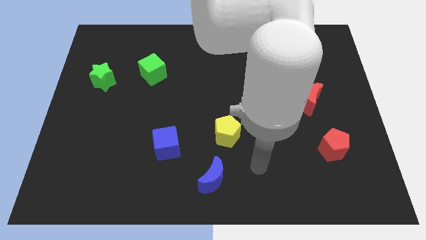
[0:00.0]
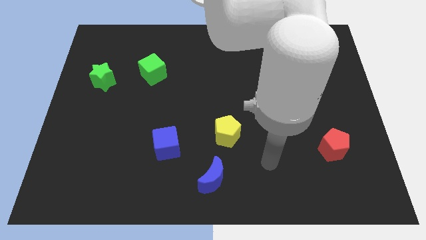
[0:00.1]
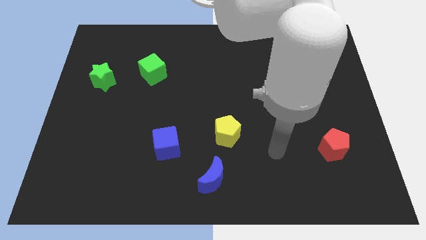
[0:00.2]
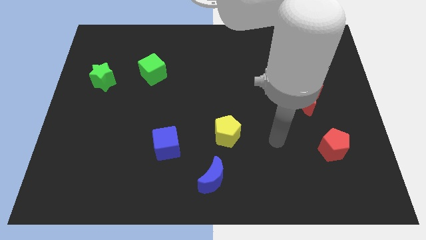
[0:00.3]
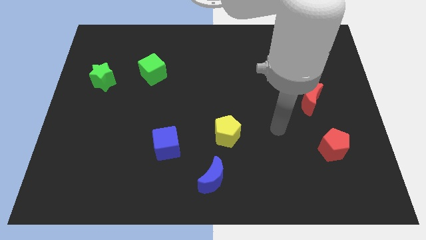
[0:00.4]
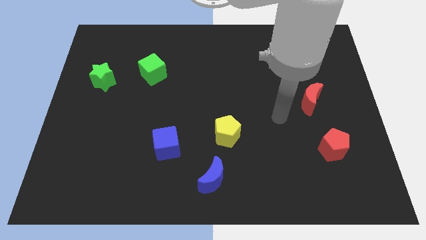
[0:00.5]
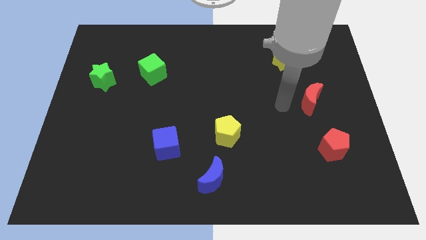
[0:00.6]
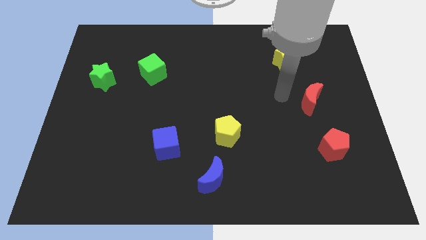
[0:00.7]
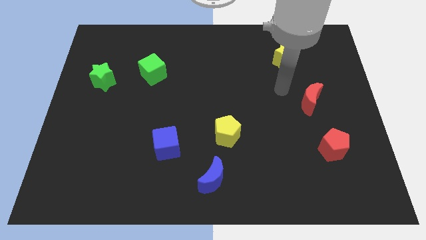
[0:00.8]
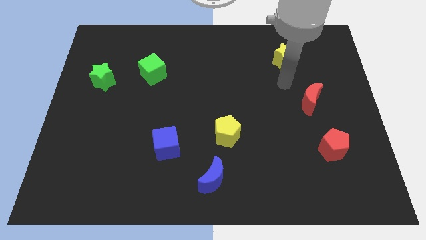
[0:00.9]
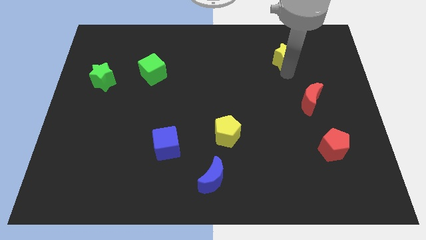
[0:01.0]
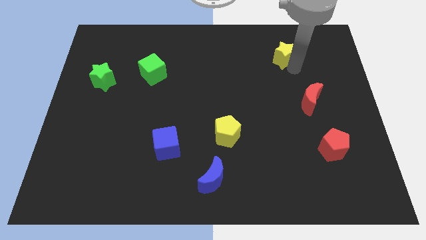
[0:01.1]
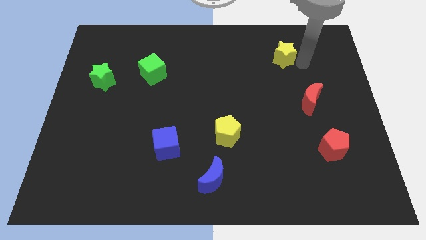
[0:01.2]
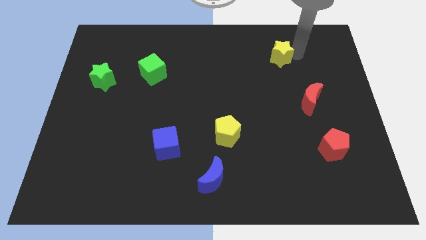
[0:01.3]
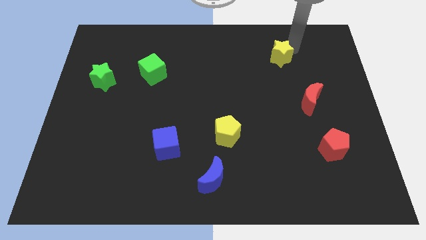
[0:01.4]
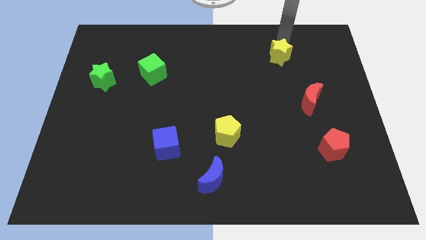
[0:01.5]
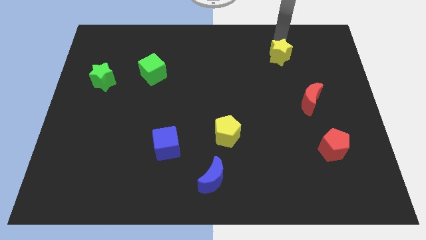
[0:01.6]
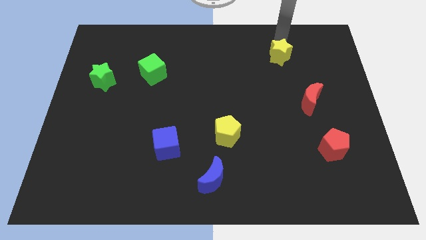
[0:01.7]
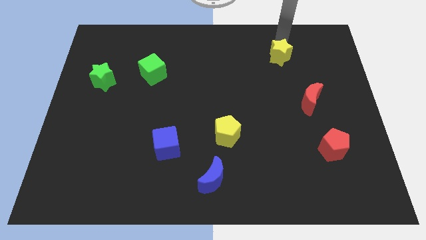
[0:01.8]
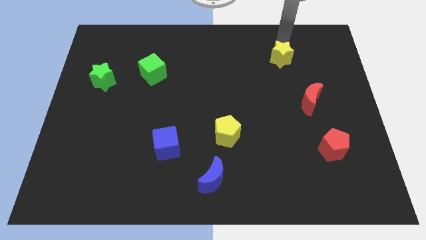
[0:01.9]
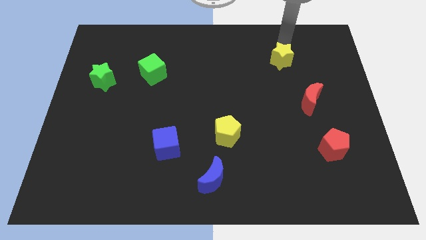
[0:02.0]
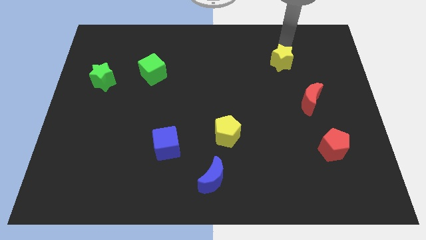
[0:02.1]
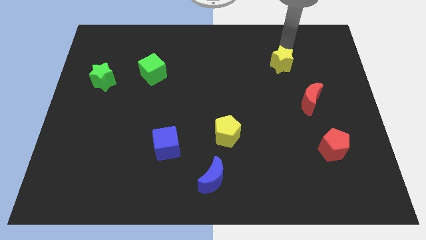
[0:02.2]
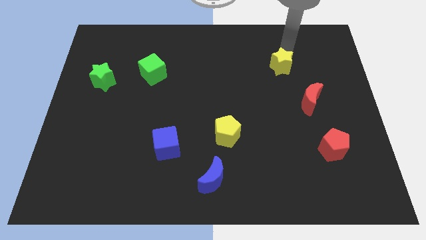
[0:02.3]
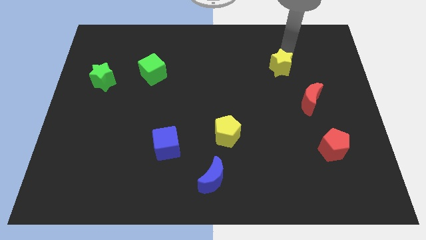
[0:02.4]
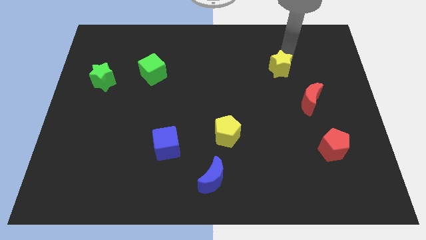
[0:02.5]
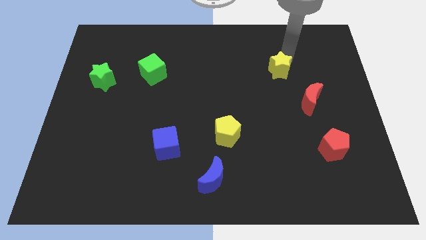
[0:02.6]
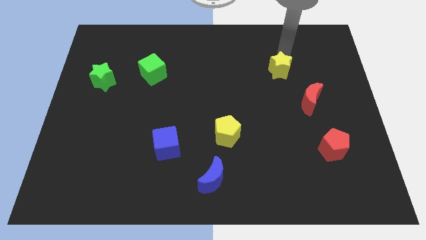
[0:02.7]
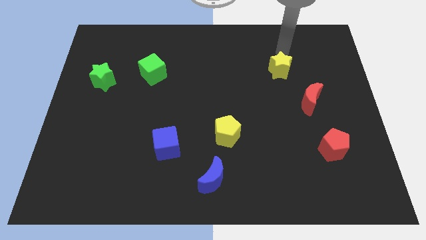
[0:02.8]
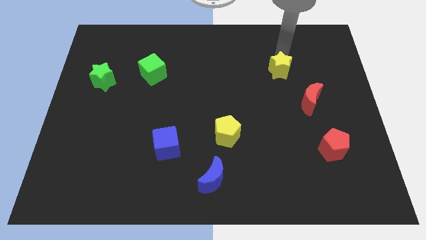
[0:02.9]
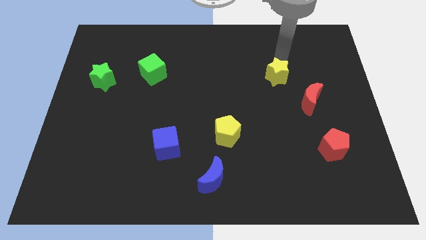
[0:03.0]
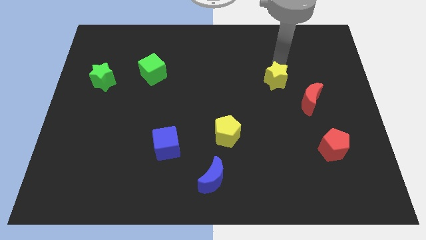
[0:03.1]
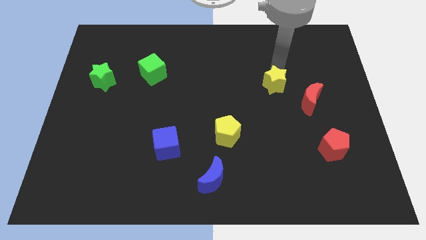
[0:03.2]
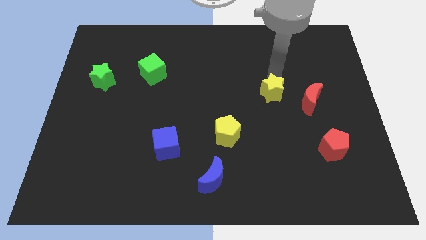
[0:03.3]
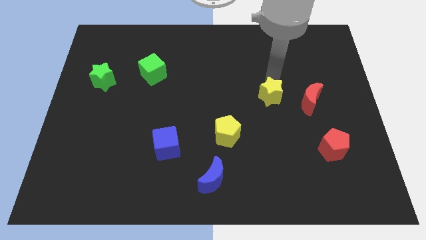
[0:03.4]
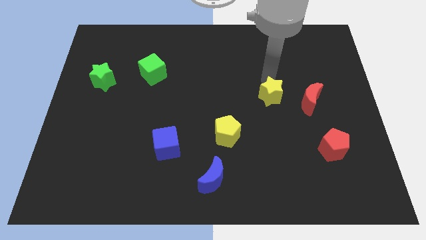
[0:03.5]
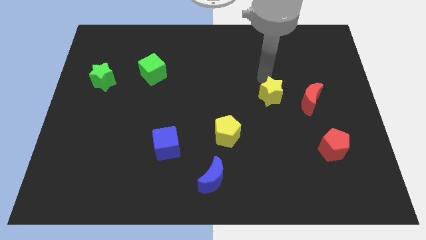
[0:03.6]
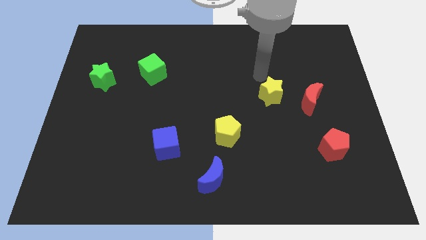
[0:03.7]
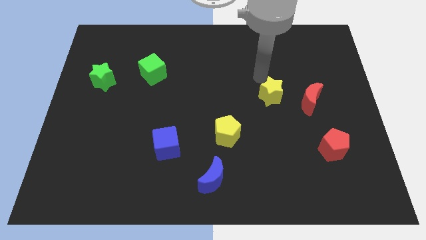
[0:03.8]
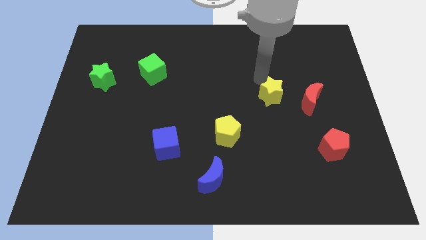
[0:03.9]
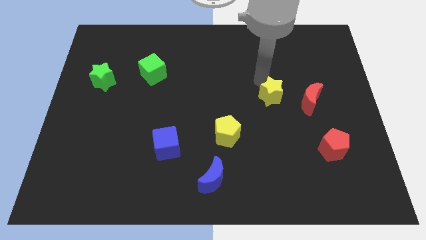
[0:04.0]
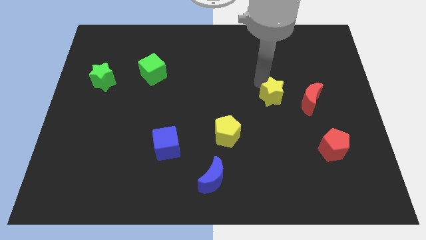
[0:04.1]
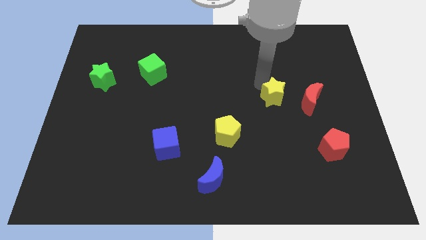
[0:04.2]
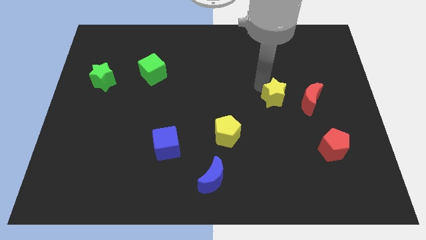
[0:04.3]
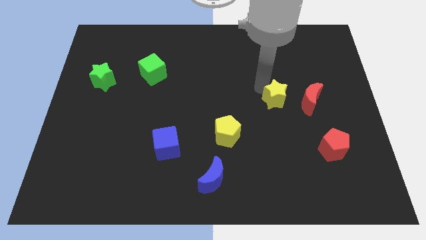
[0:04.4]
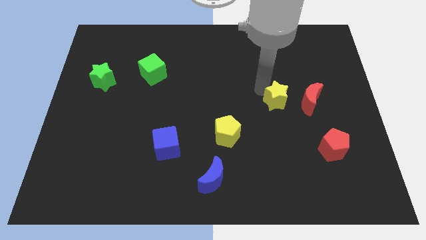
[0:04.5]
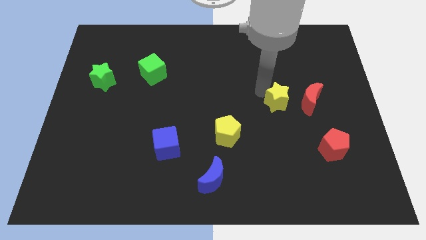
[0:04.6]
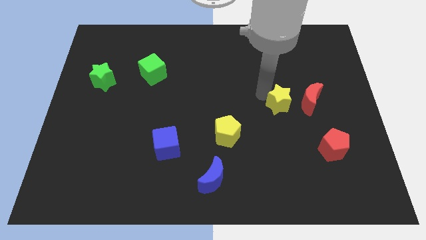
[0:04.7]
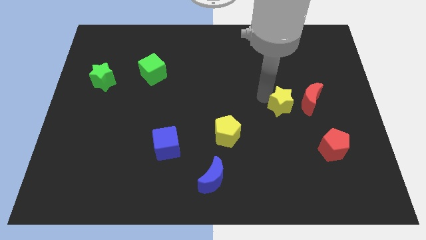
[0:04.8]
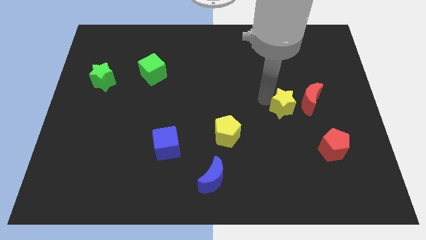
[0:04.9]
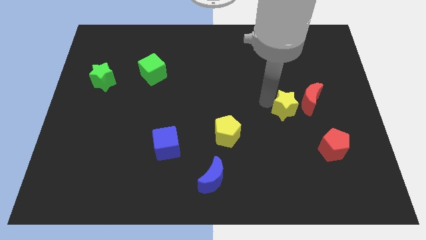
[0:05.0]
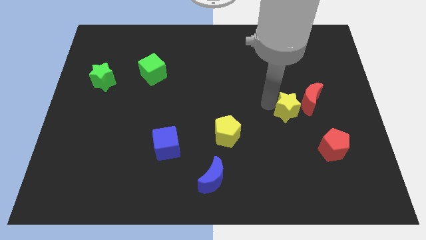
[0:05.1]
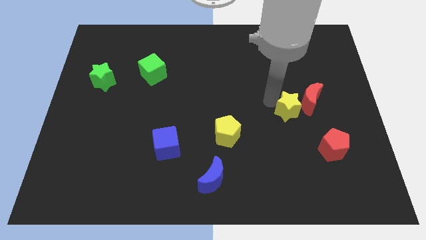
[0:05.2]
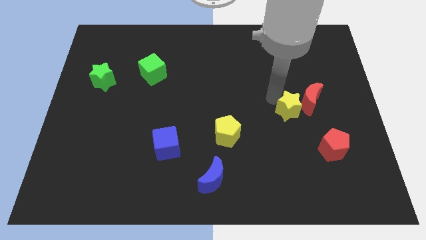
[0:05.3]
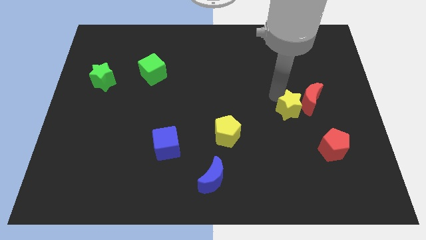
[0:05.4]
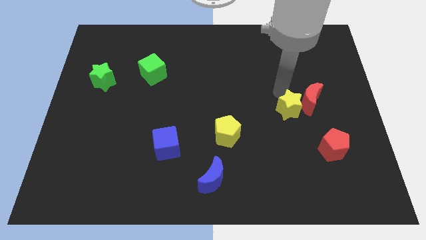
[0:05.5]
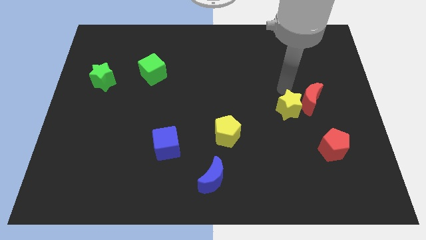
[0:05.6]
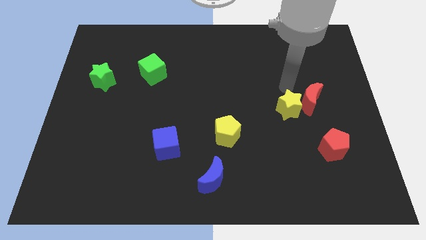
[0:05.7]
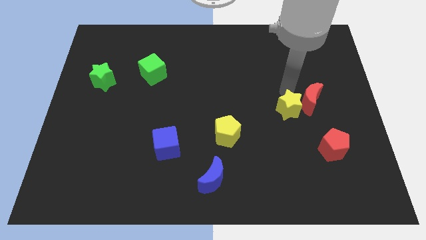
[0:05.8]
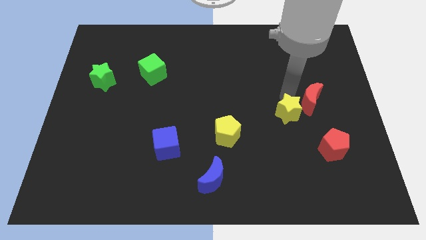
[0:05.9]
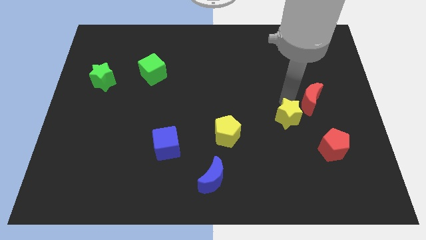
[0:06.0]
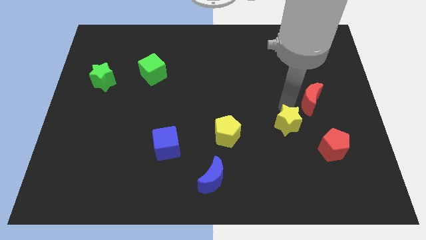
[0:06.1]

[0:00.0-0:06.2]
slide the yellow star downwards

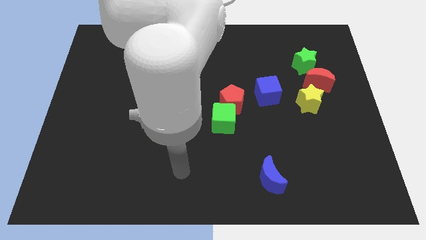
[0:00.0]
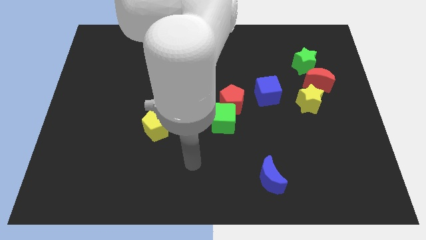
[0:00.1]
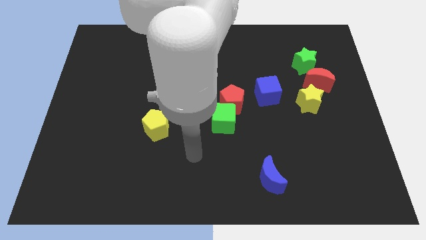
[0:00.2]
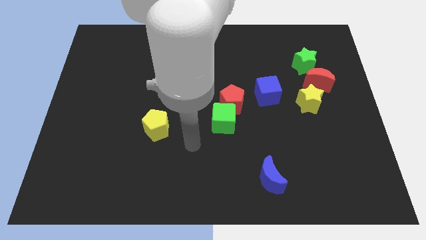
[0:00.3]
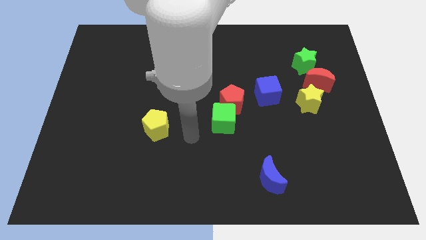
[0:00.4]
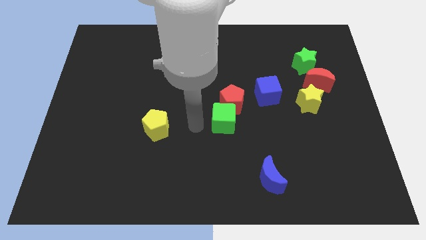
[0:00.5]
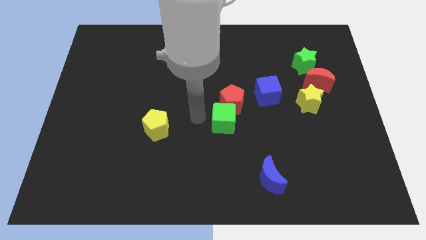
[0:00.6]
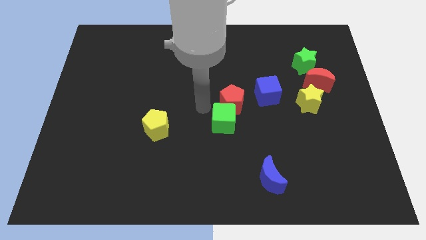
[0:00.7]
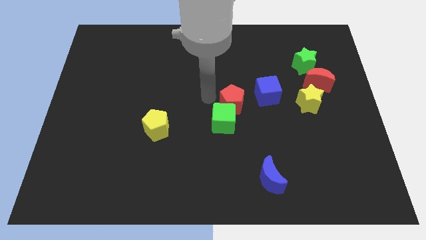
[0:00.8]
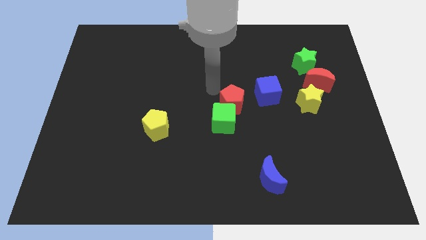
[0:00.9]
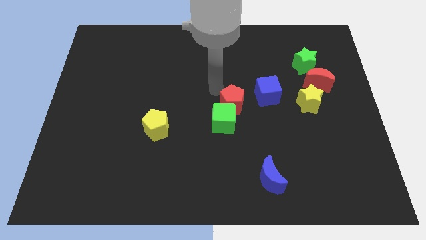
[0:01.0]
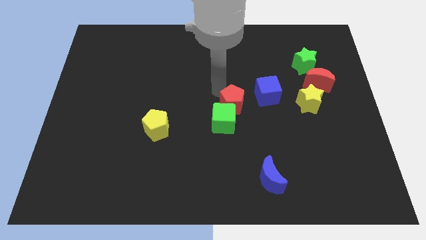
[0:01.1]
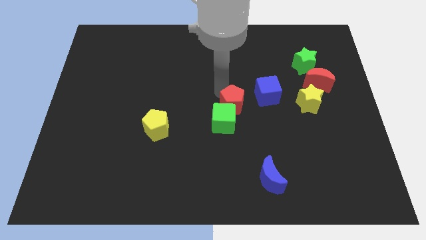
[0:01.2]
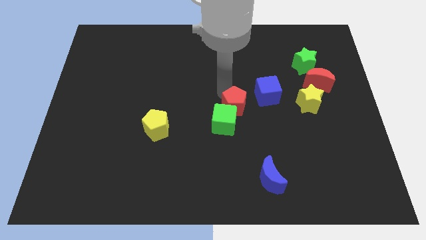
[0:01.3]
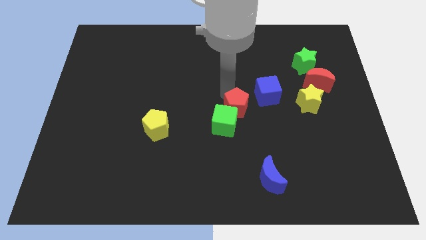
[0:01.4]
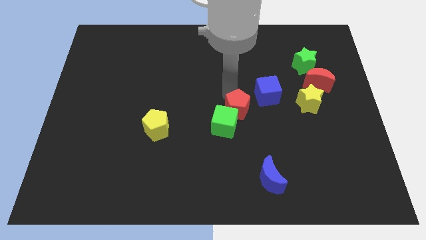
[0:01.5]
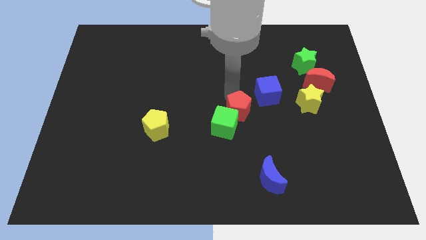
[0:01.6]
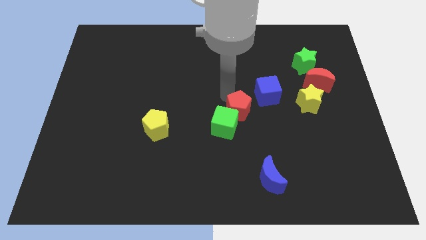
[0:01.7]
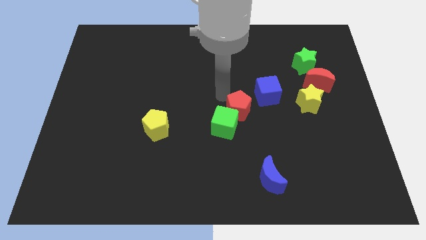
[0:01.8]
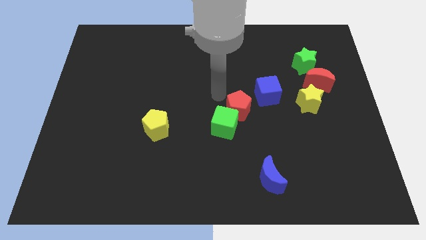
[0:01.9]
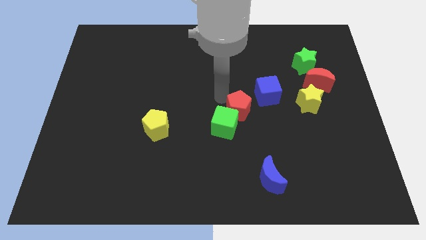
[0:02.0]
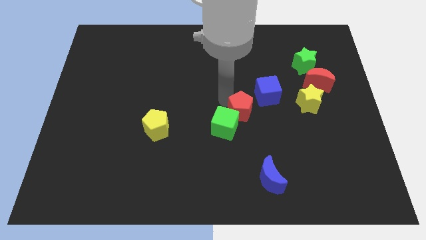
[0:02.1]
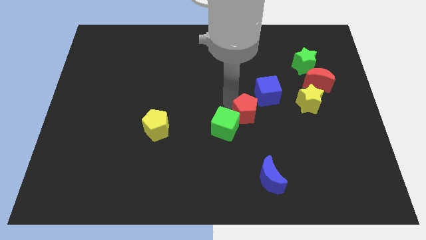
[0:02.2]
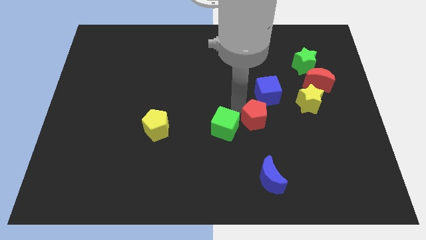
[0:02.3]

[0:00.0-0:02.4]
slightly move the red pentagon downwards and right
